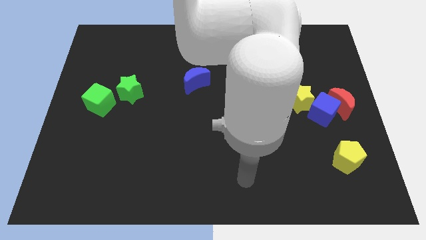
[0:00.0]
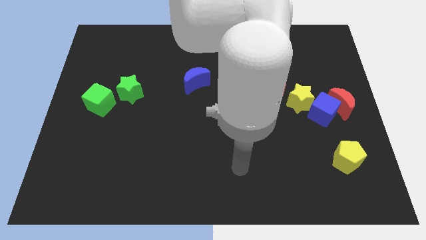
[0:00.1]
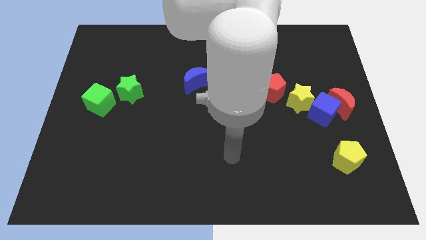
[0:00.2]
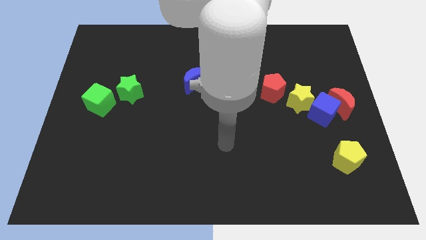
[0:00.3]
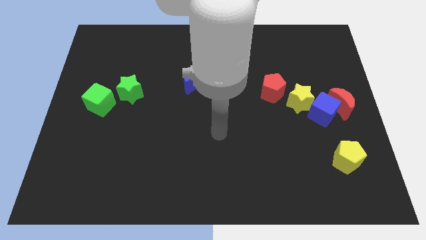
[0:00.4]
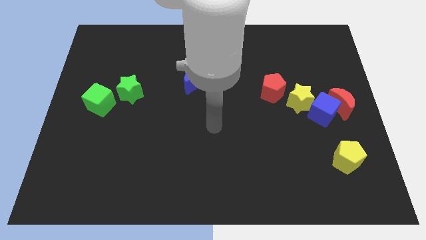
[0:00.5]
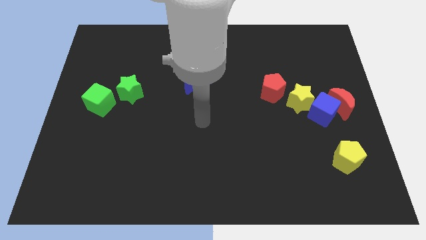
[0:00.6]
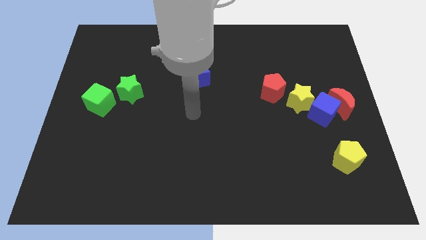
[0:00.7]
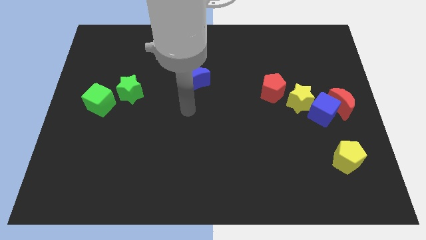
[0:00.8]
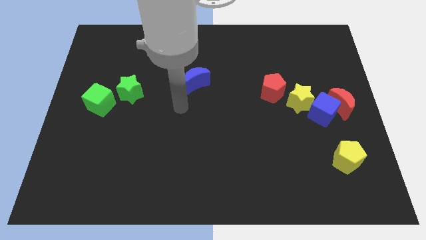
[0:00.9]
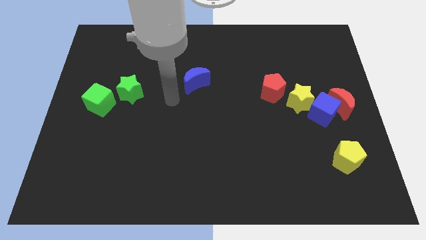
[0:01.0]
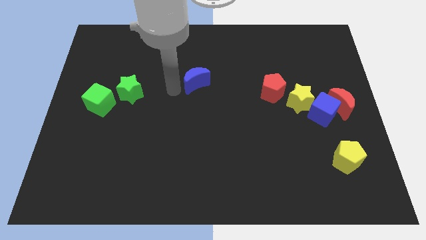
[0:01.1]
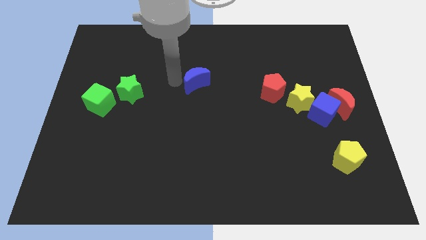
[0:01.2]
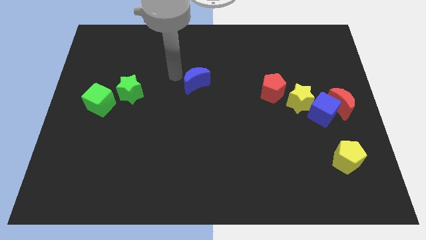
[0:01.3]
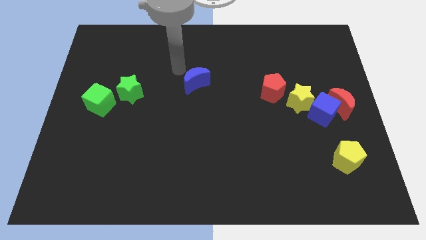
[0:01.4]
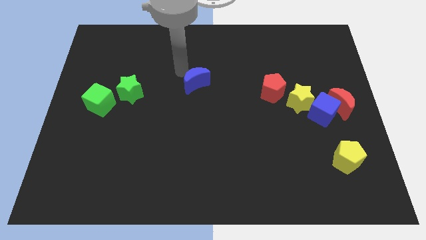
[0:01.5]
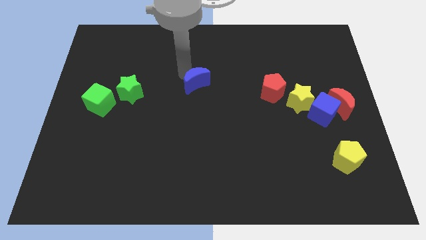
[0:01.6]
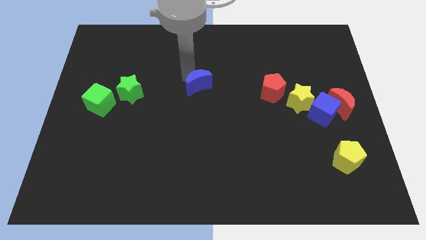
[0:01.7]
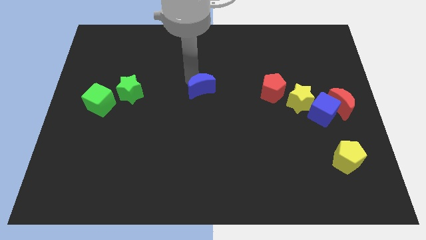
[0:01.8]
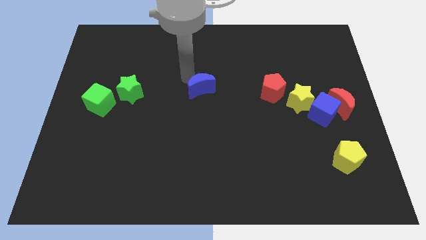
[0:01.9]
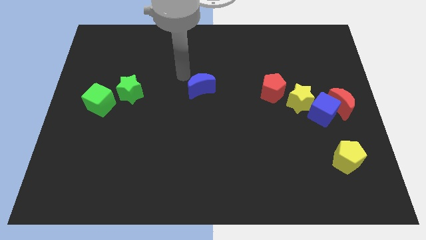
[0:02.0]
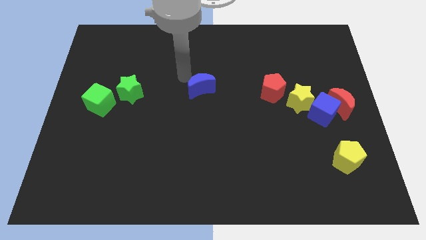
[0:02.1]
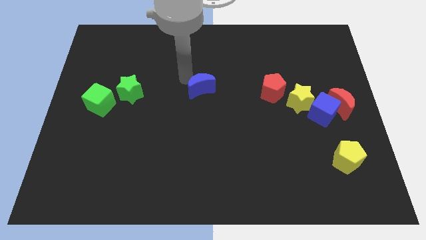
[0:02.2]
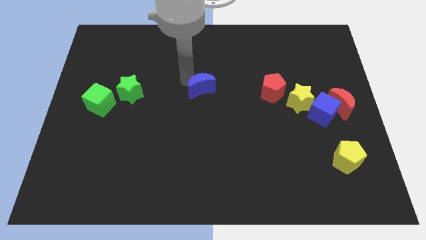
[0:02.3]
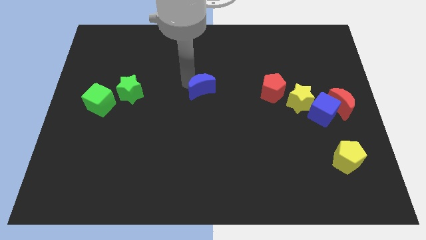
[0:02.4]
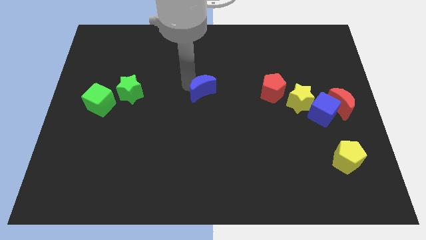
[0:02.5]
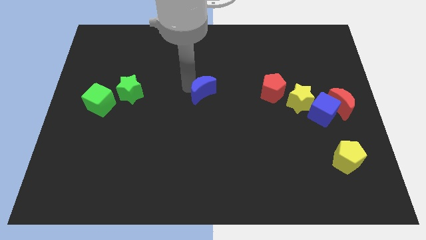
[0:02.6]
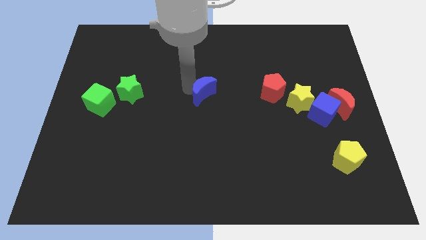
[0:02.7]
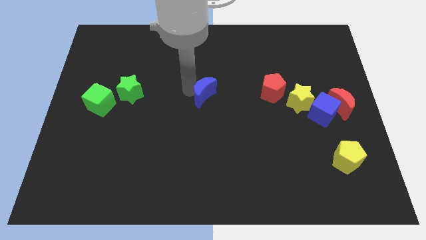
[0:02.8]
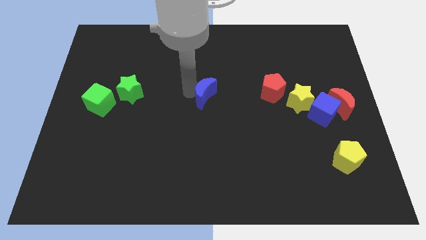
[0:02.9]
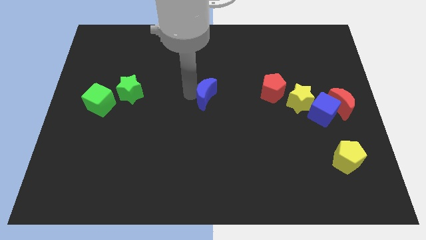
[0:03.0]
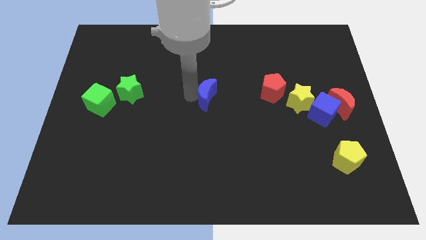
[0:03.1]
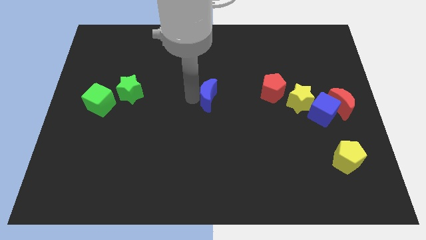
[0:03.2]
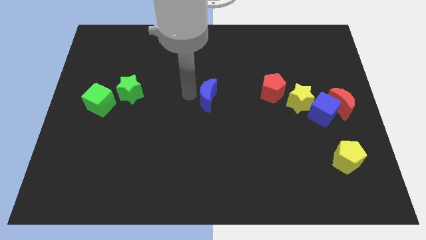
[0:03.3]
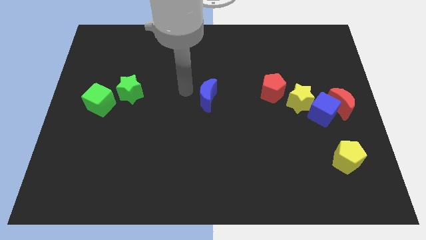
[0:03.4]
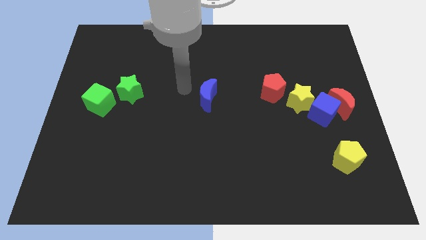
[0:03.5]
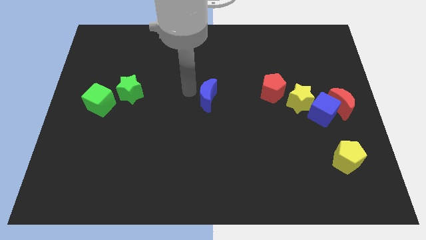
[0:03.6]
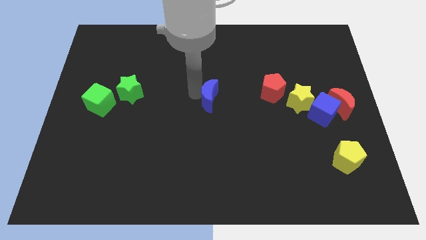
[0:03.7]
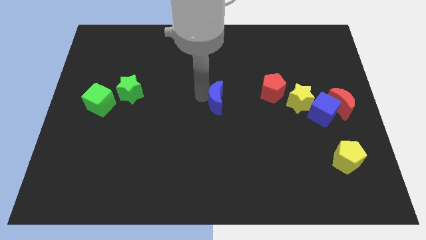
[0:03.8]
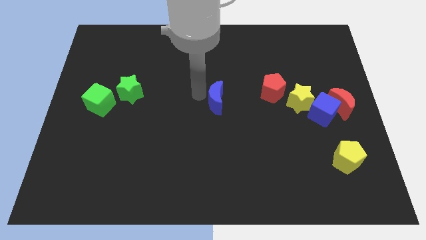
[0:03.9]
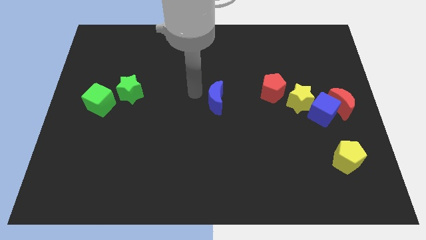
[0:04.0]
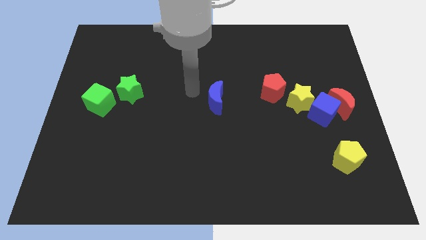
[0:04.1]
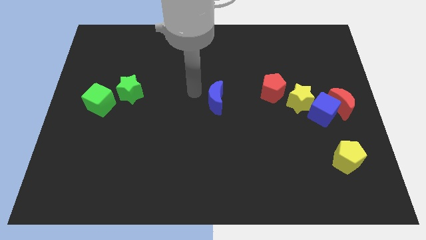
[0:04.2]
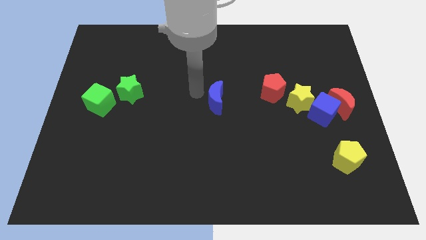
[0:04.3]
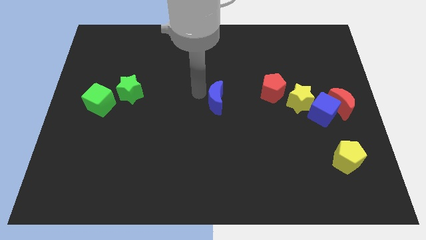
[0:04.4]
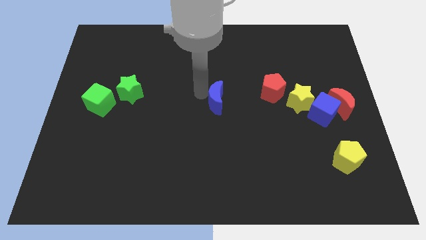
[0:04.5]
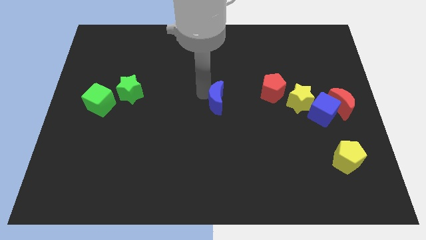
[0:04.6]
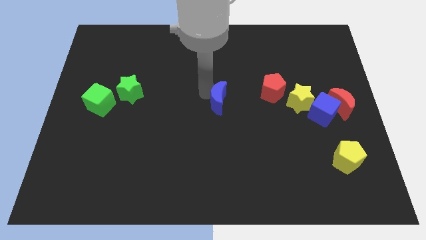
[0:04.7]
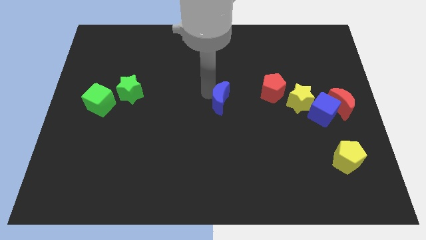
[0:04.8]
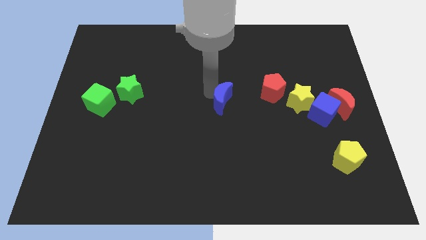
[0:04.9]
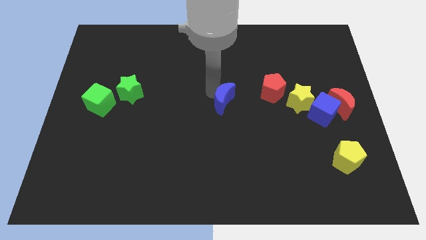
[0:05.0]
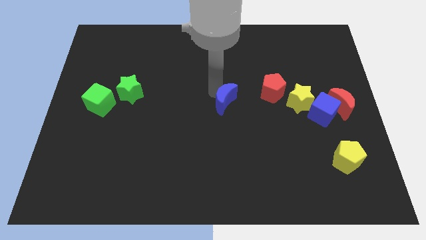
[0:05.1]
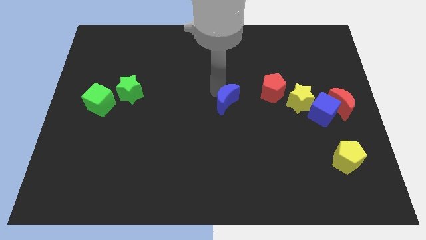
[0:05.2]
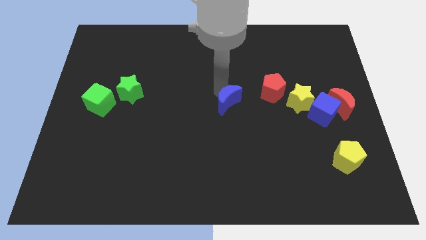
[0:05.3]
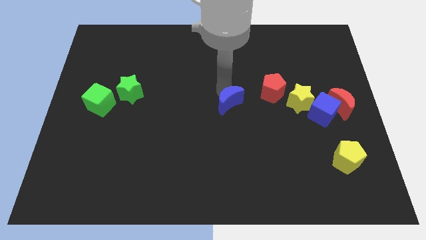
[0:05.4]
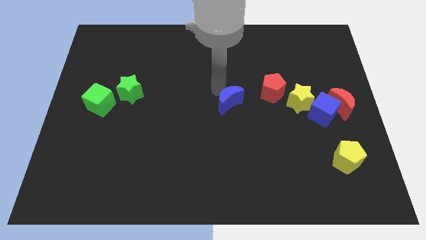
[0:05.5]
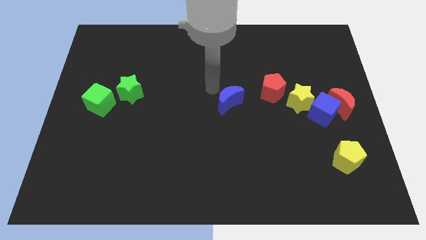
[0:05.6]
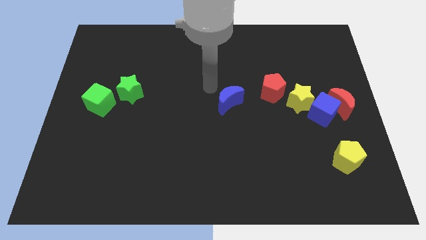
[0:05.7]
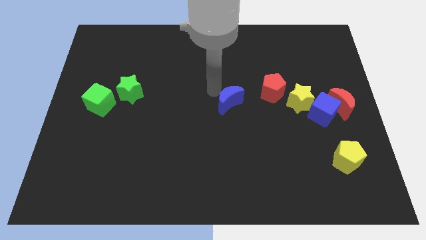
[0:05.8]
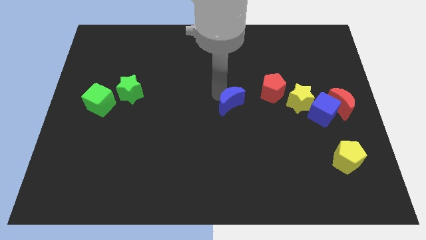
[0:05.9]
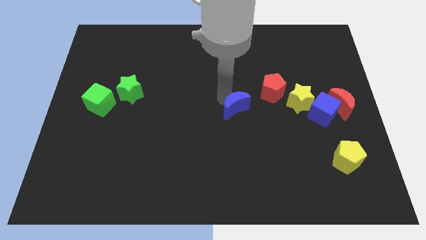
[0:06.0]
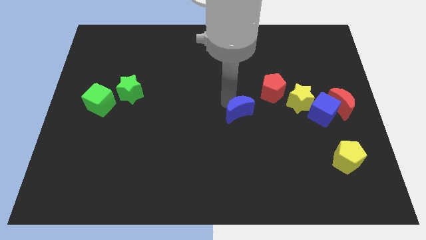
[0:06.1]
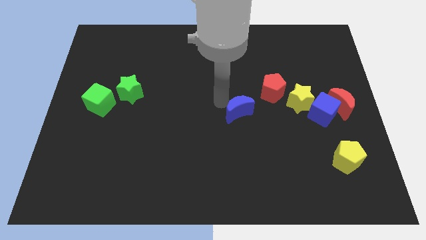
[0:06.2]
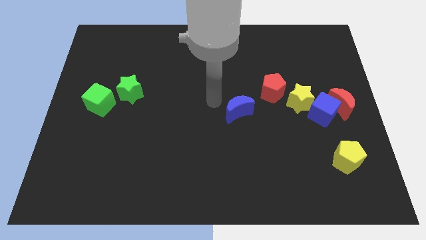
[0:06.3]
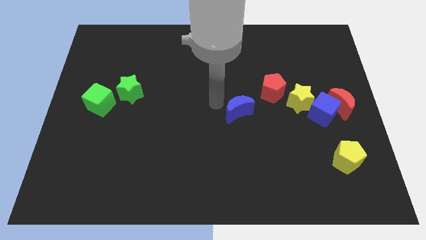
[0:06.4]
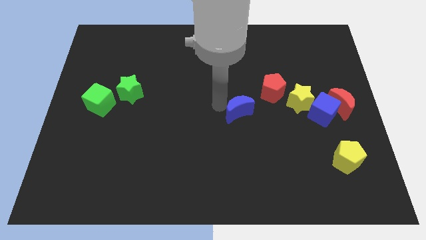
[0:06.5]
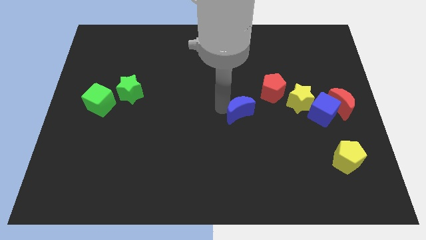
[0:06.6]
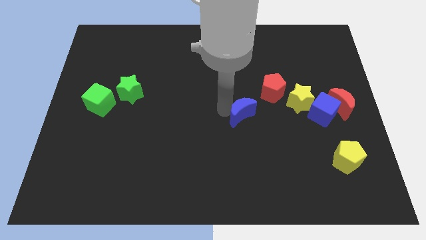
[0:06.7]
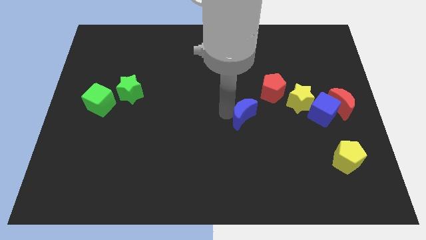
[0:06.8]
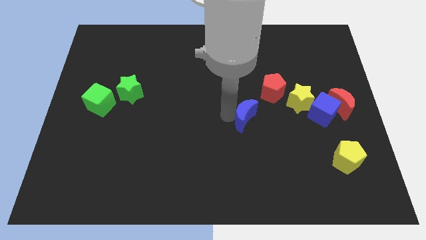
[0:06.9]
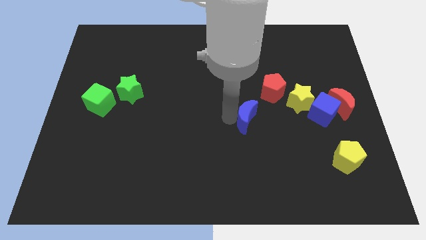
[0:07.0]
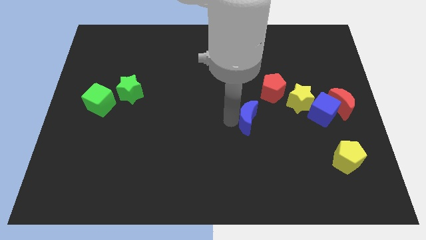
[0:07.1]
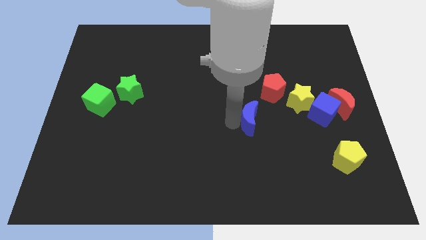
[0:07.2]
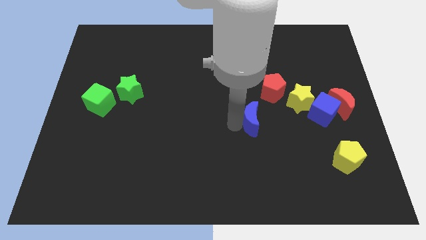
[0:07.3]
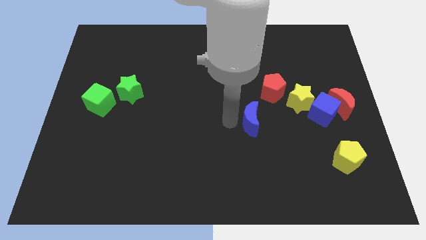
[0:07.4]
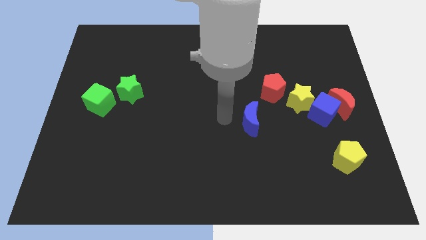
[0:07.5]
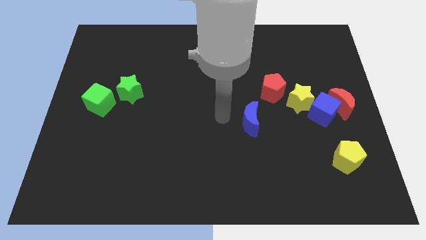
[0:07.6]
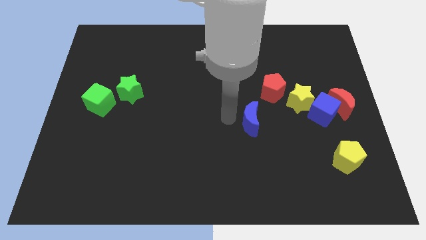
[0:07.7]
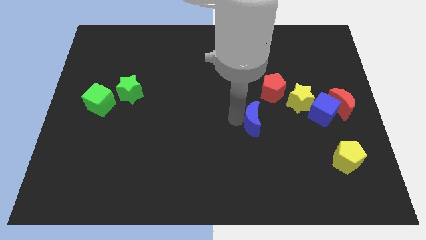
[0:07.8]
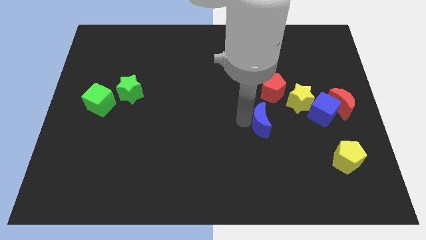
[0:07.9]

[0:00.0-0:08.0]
put the blue moon to the bottom of the red pentagon
